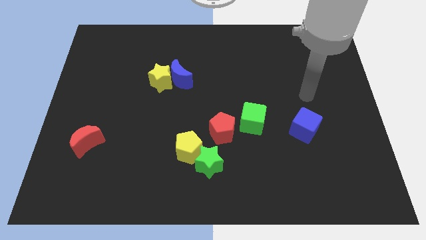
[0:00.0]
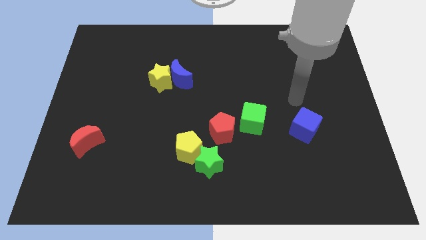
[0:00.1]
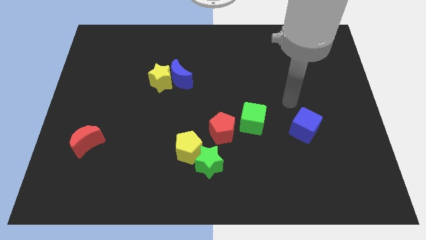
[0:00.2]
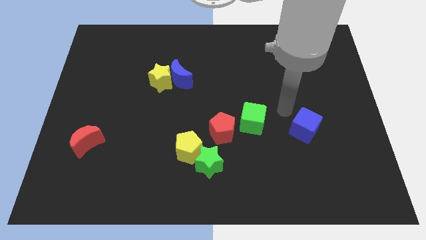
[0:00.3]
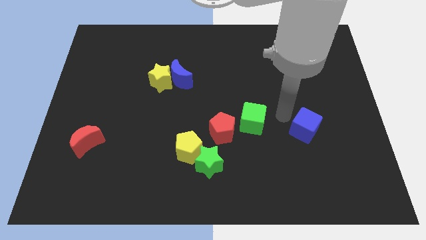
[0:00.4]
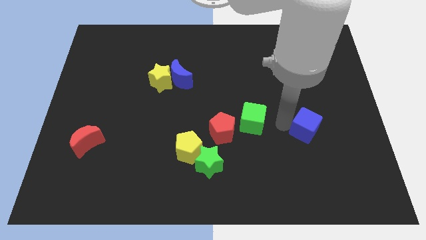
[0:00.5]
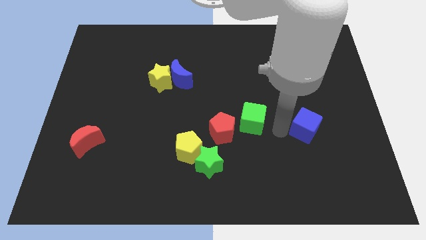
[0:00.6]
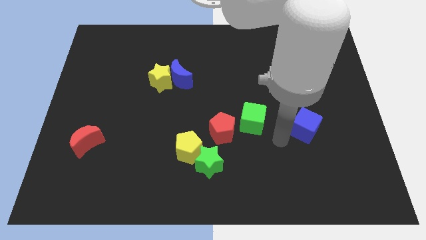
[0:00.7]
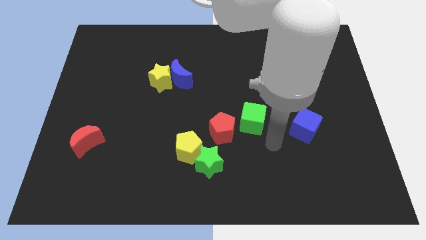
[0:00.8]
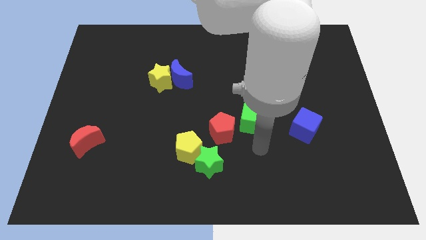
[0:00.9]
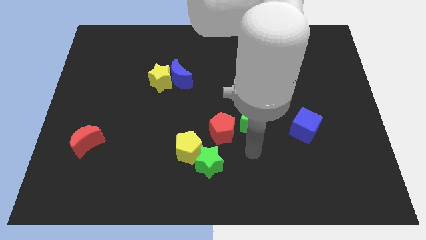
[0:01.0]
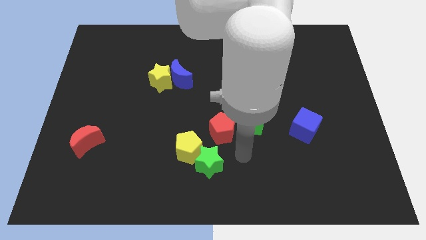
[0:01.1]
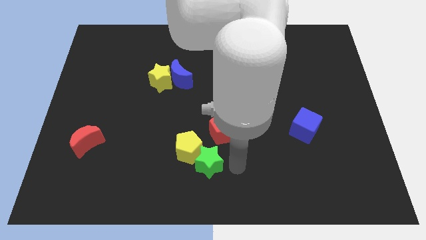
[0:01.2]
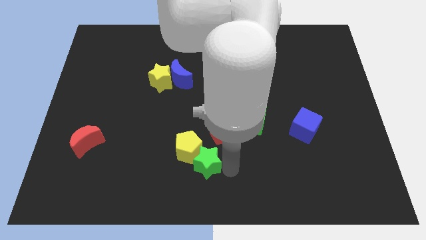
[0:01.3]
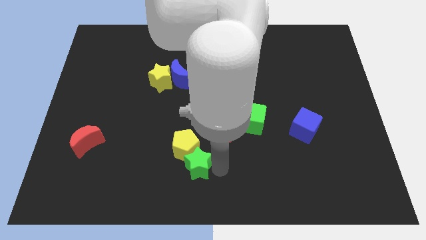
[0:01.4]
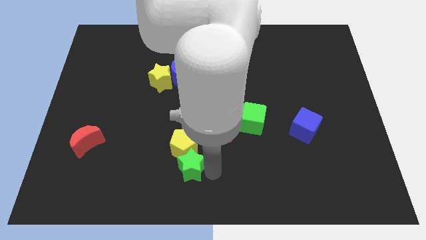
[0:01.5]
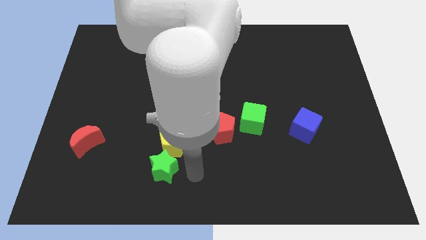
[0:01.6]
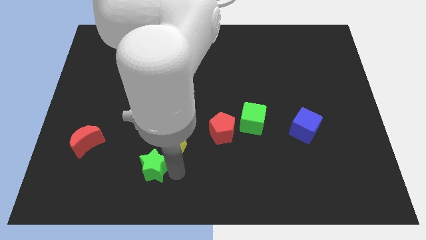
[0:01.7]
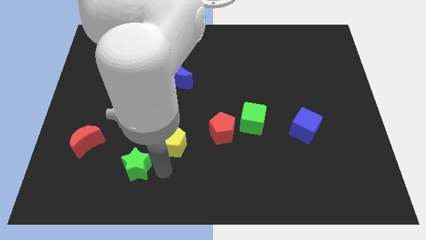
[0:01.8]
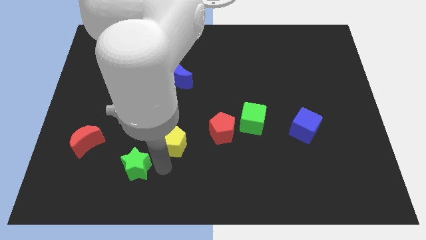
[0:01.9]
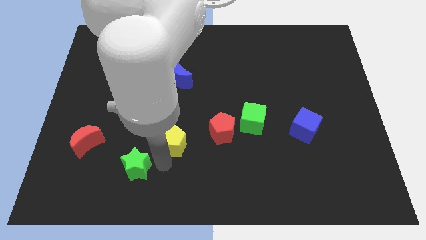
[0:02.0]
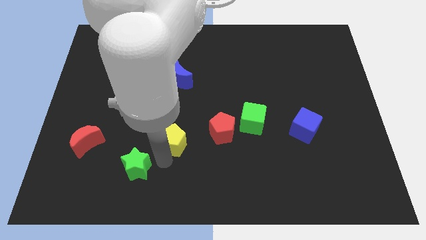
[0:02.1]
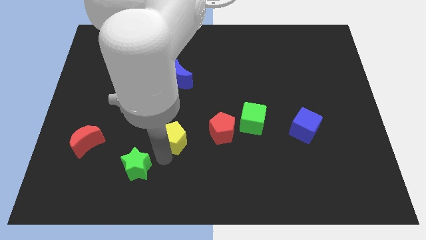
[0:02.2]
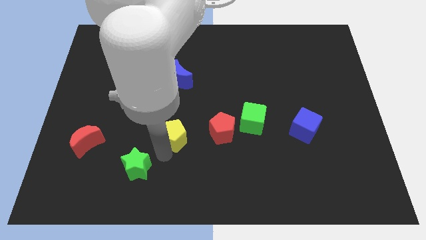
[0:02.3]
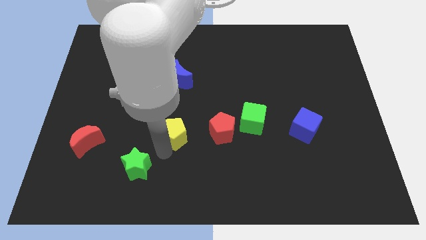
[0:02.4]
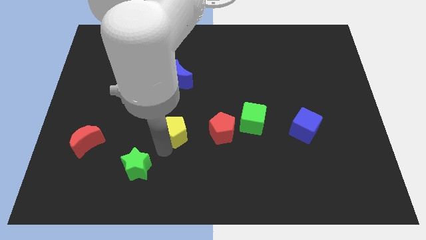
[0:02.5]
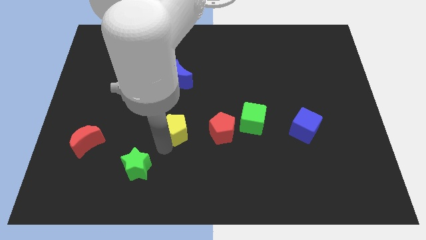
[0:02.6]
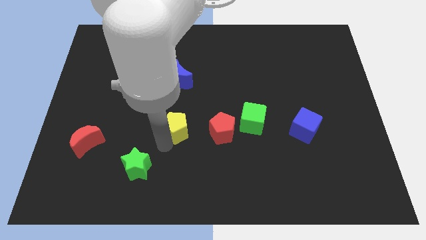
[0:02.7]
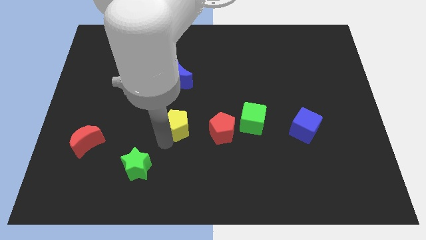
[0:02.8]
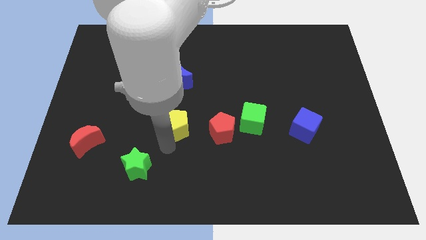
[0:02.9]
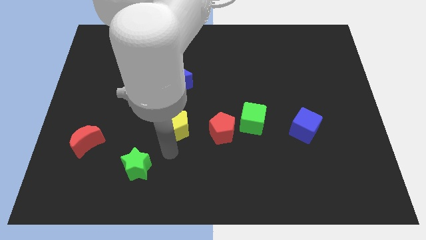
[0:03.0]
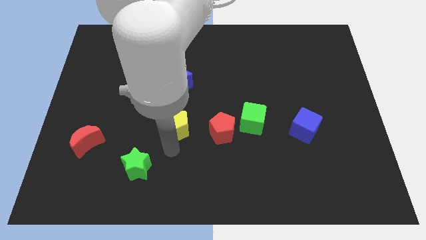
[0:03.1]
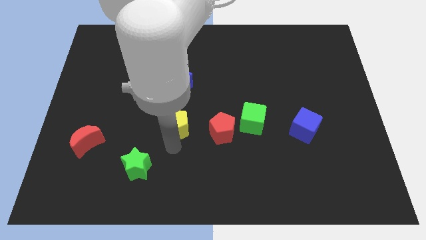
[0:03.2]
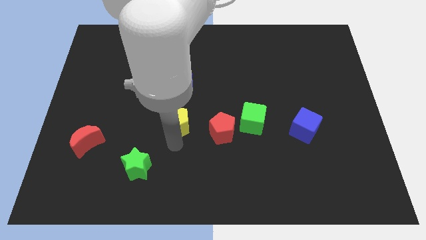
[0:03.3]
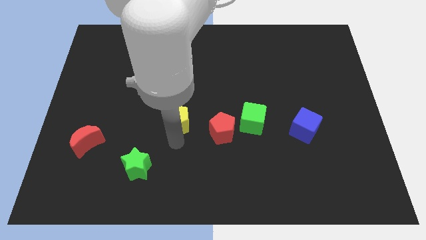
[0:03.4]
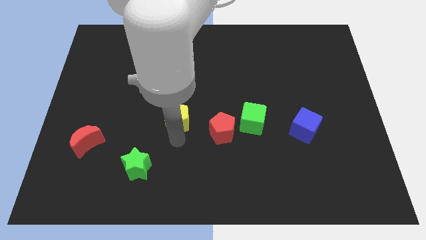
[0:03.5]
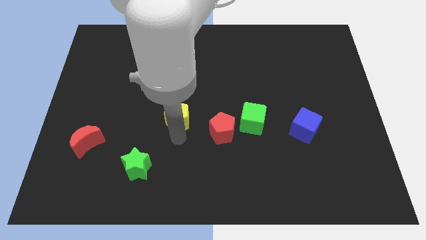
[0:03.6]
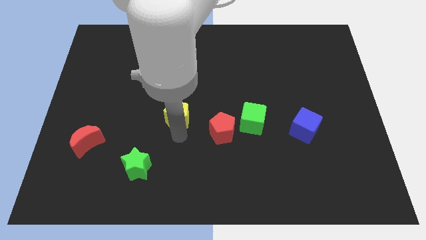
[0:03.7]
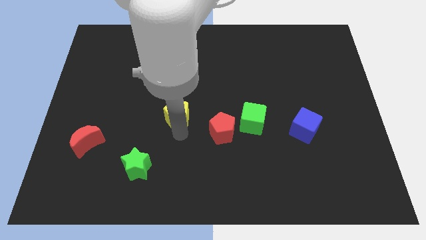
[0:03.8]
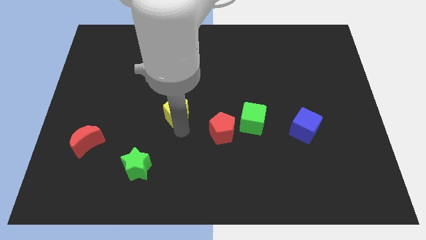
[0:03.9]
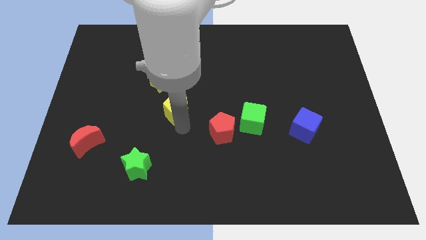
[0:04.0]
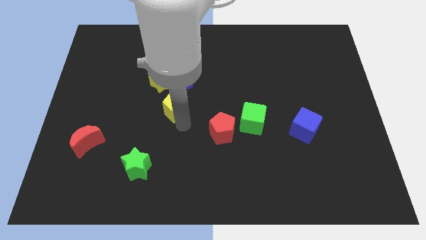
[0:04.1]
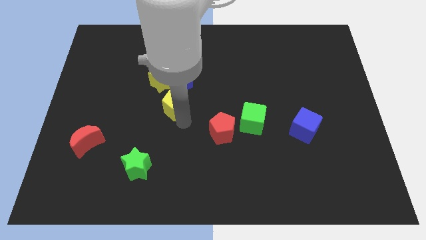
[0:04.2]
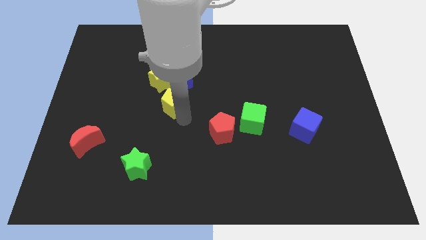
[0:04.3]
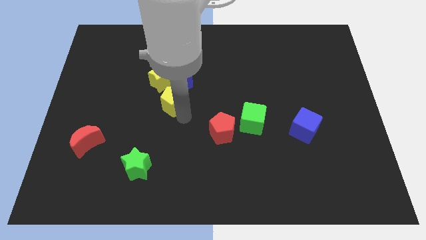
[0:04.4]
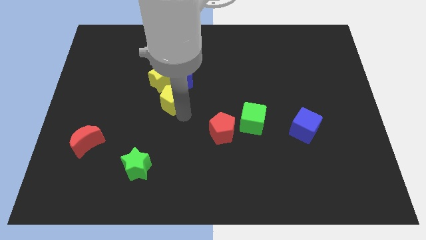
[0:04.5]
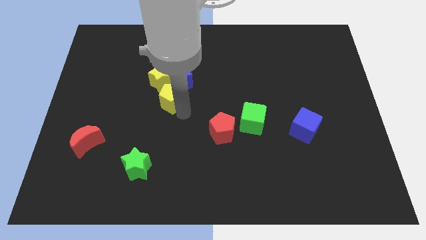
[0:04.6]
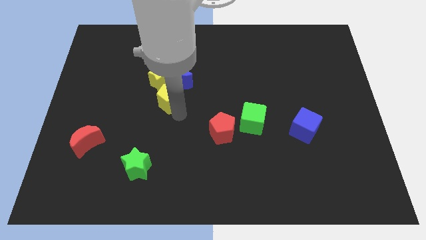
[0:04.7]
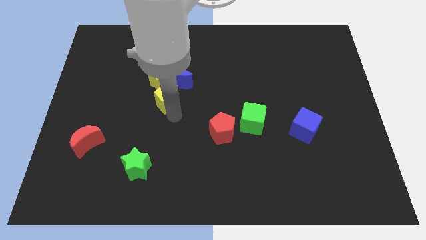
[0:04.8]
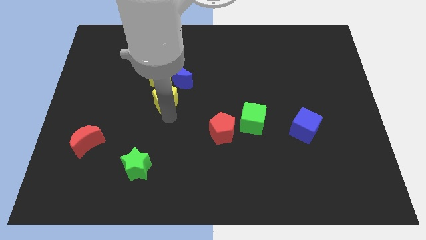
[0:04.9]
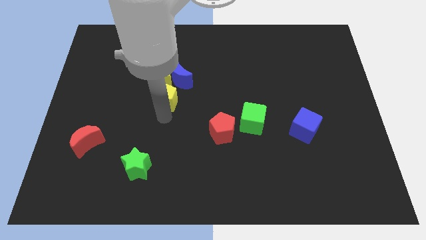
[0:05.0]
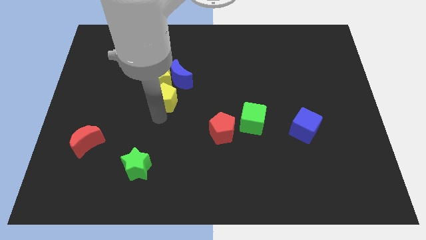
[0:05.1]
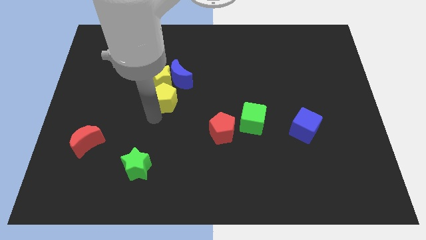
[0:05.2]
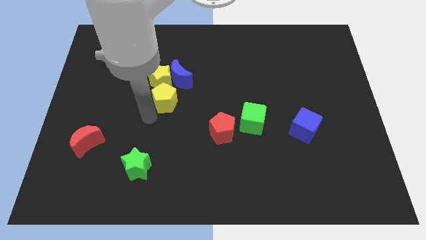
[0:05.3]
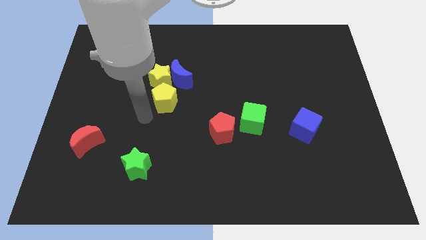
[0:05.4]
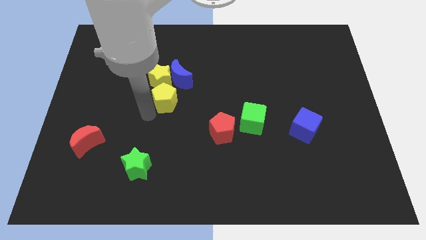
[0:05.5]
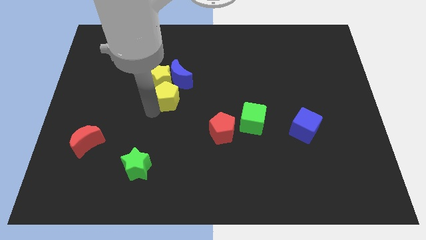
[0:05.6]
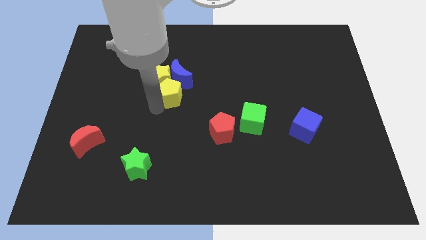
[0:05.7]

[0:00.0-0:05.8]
move the yellow pentagon towards the blue moon

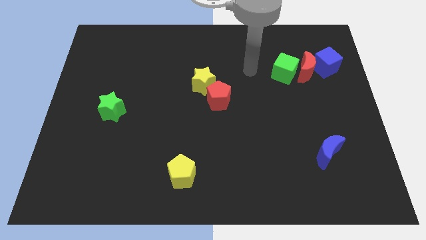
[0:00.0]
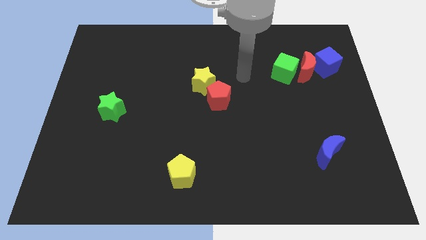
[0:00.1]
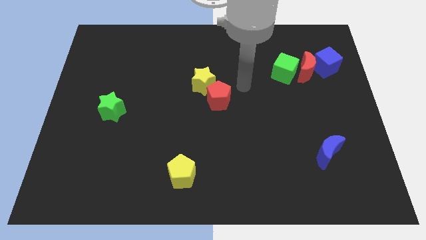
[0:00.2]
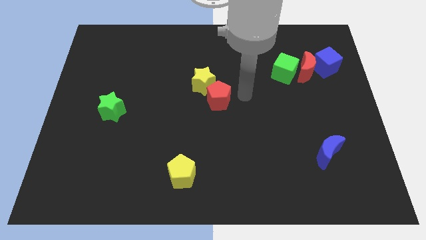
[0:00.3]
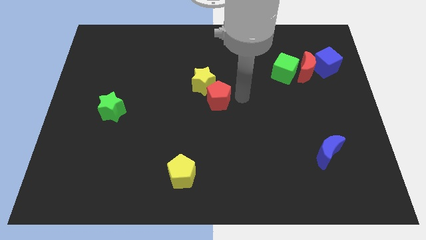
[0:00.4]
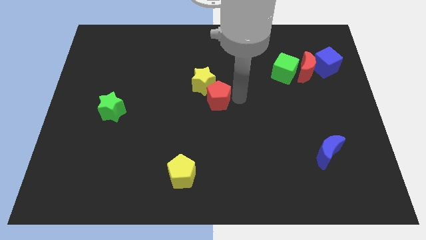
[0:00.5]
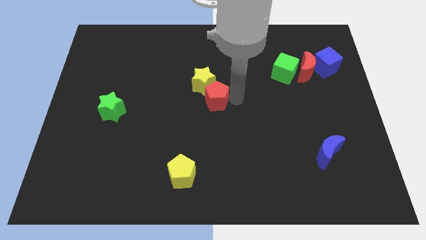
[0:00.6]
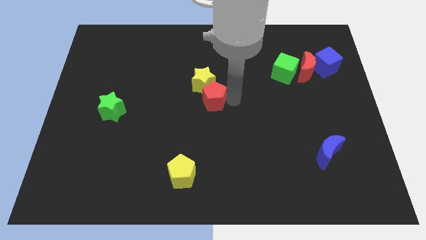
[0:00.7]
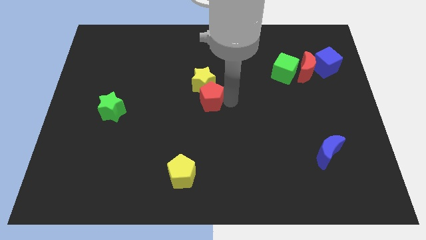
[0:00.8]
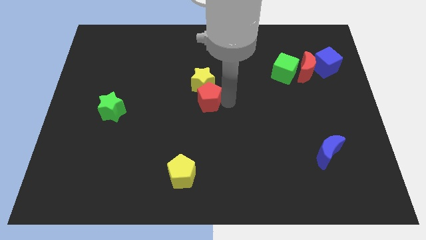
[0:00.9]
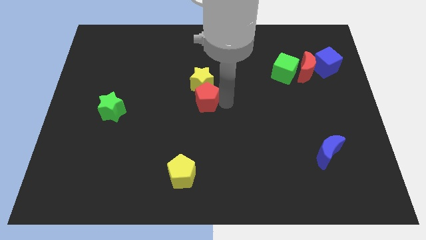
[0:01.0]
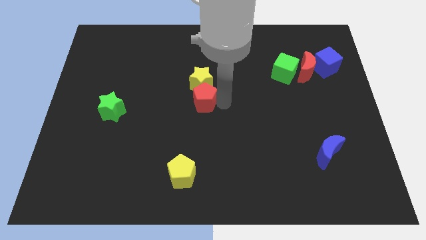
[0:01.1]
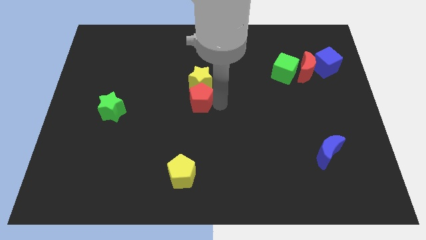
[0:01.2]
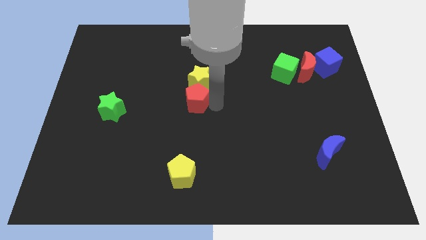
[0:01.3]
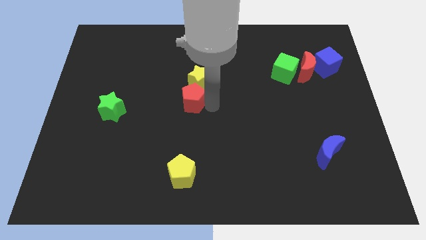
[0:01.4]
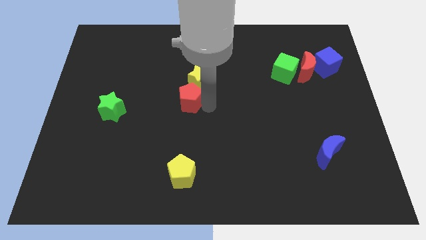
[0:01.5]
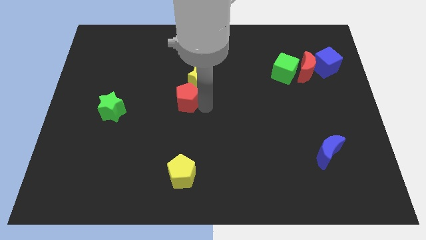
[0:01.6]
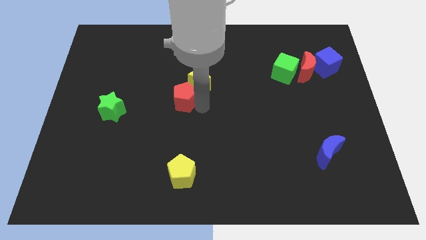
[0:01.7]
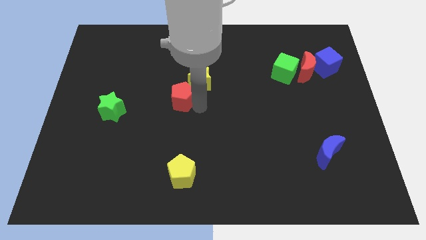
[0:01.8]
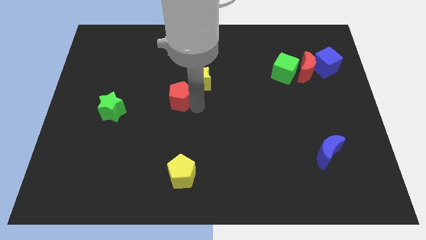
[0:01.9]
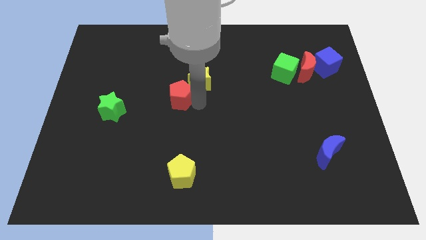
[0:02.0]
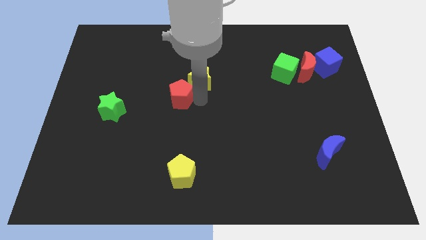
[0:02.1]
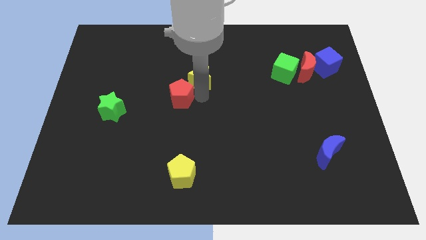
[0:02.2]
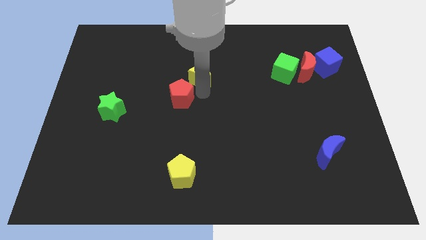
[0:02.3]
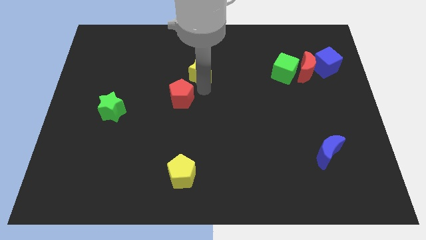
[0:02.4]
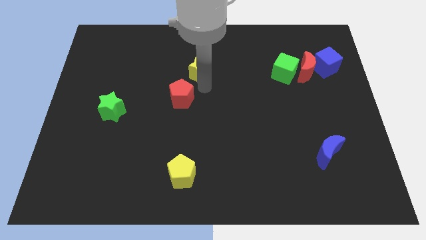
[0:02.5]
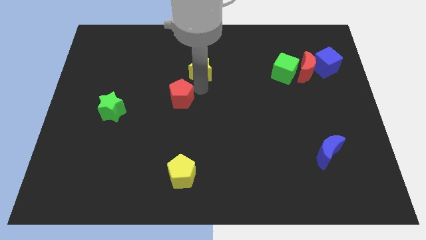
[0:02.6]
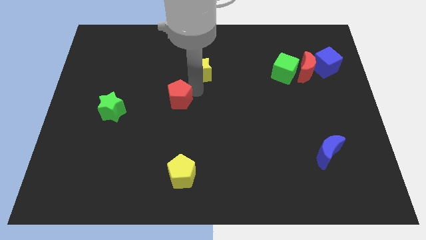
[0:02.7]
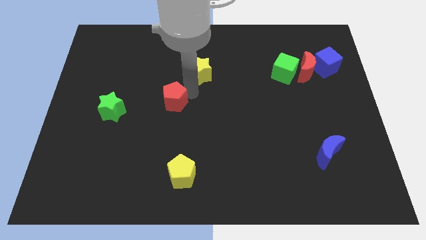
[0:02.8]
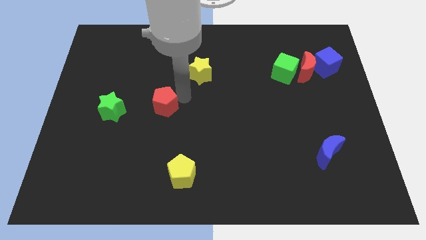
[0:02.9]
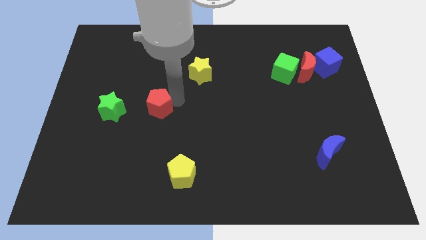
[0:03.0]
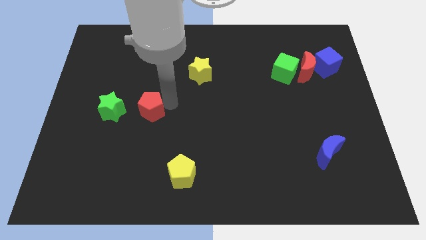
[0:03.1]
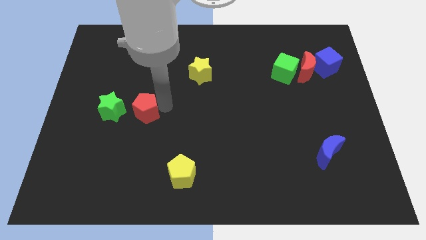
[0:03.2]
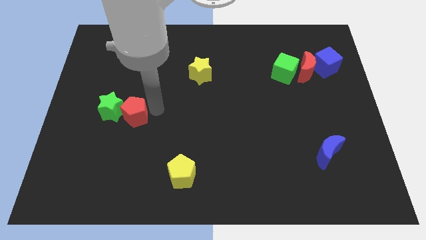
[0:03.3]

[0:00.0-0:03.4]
put the red pentagon to the green star
